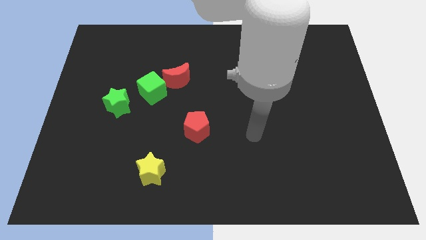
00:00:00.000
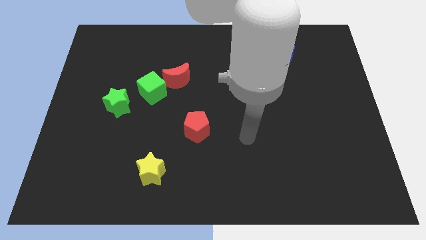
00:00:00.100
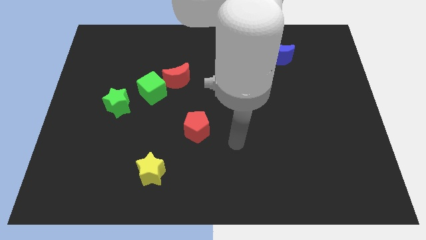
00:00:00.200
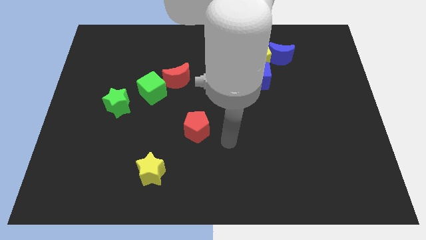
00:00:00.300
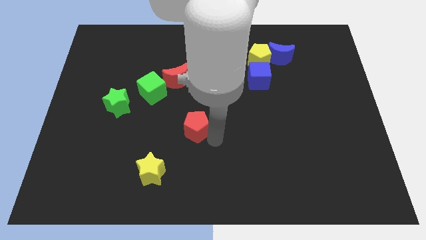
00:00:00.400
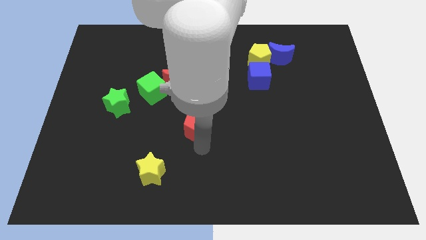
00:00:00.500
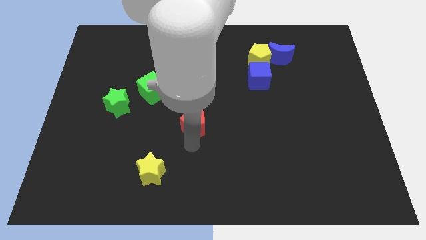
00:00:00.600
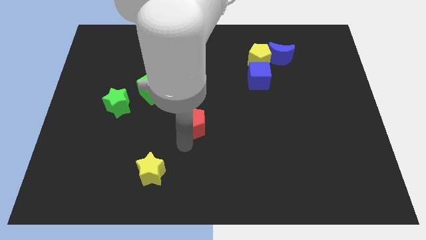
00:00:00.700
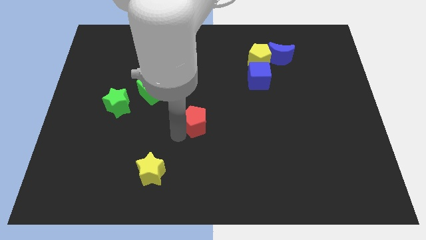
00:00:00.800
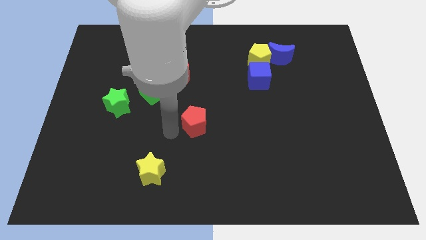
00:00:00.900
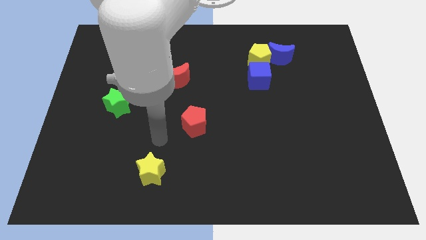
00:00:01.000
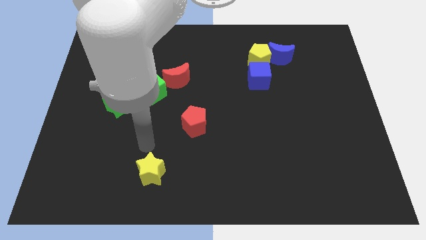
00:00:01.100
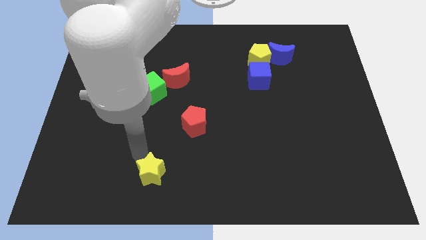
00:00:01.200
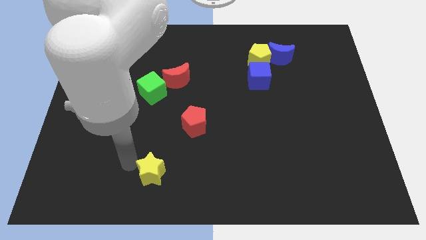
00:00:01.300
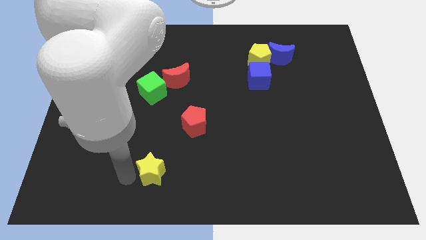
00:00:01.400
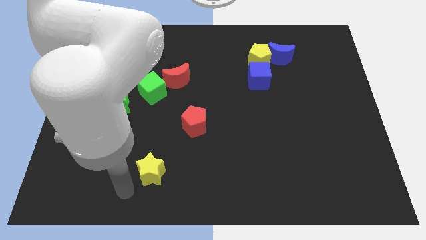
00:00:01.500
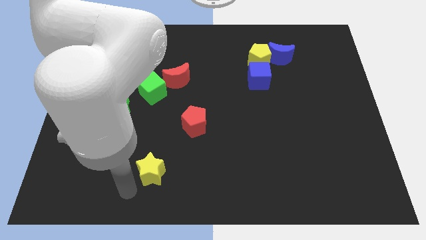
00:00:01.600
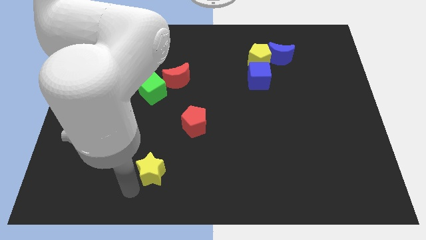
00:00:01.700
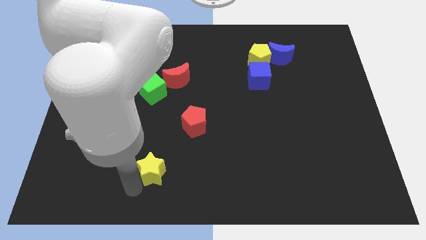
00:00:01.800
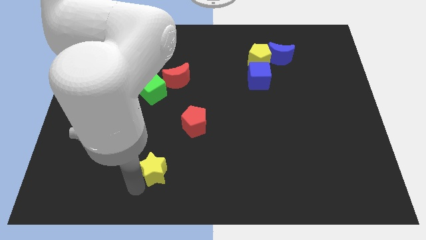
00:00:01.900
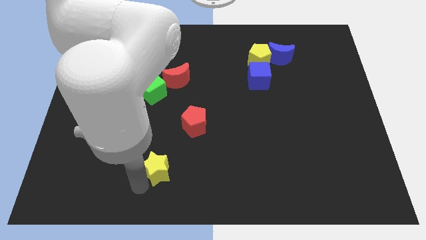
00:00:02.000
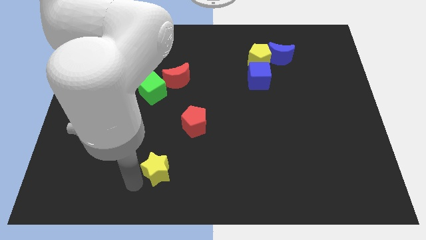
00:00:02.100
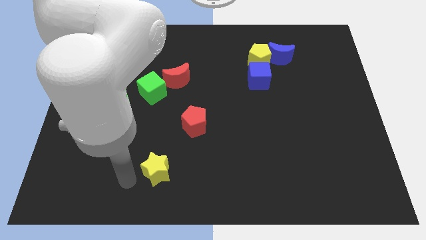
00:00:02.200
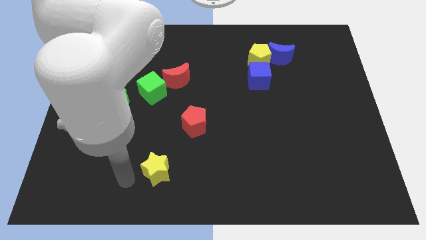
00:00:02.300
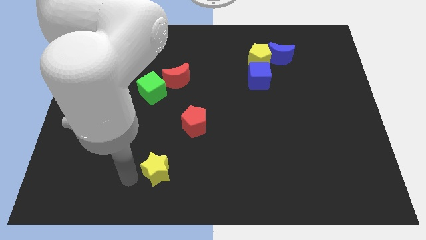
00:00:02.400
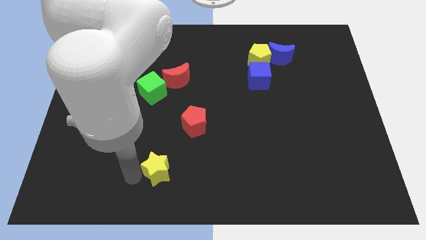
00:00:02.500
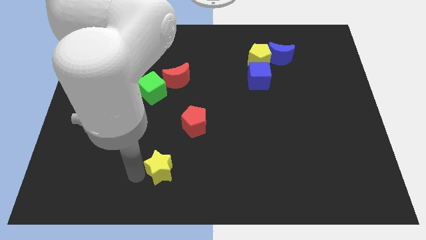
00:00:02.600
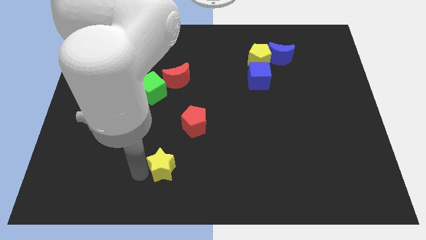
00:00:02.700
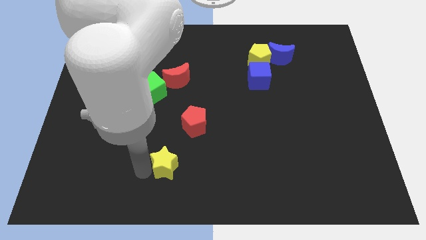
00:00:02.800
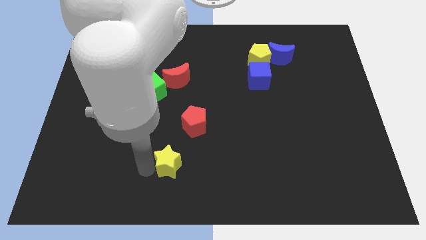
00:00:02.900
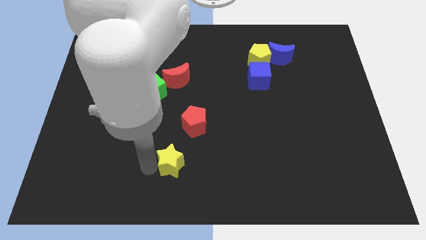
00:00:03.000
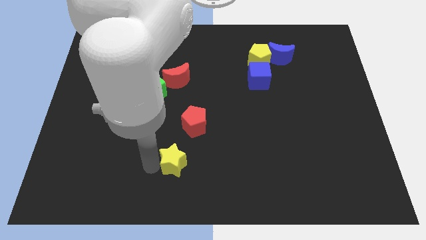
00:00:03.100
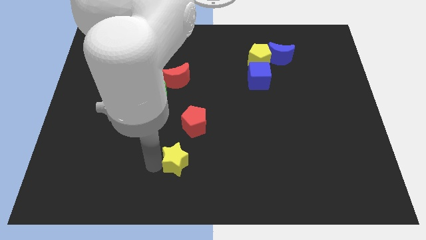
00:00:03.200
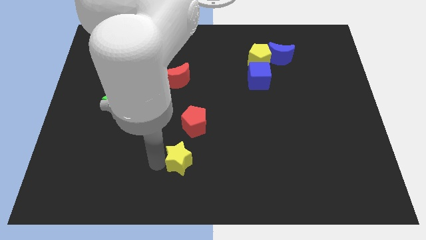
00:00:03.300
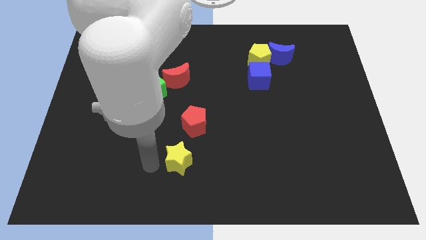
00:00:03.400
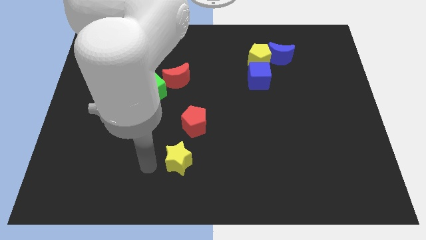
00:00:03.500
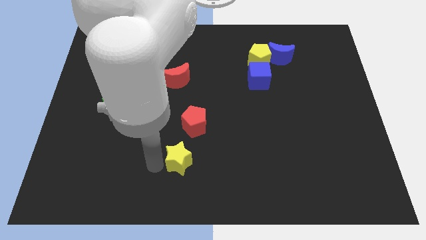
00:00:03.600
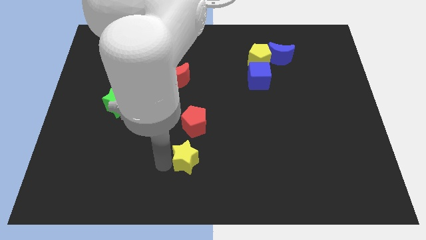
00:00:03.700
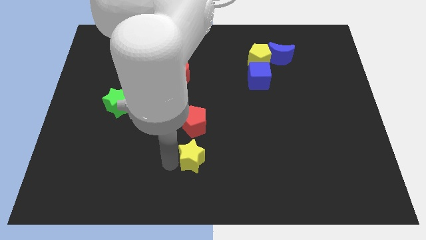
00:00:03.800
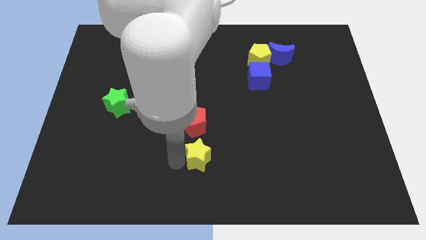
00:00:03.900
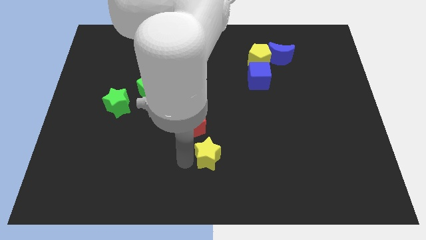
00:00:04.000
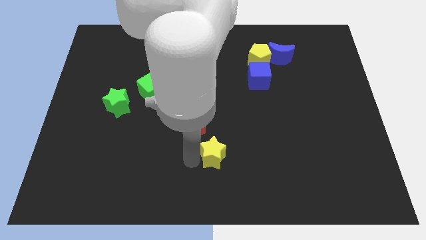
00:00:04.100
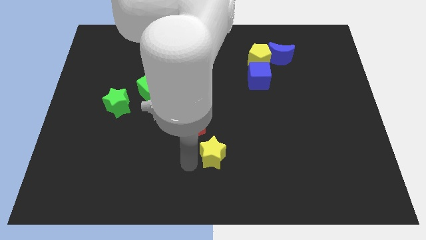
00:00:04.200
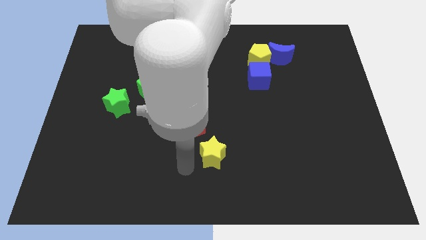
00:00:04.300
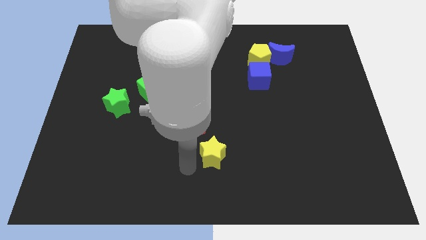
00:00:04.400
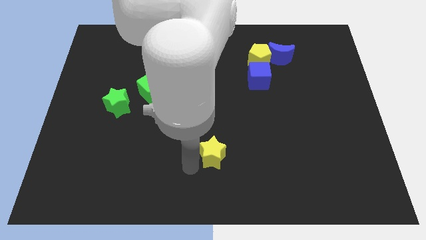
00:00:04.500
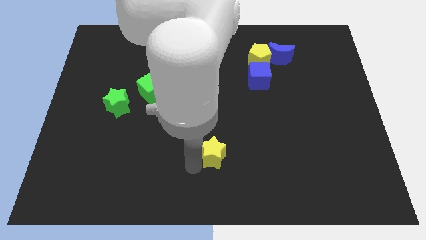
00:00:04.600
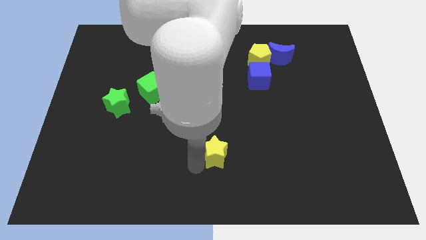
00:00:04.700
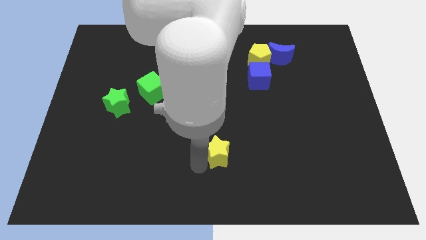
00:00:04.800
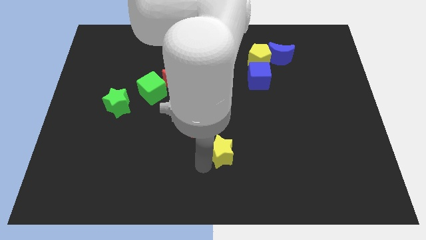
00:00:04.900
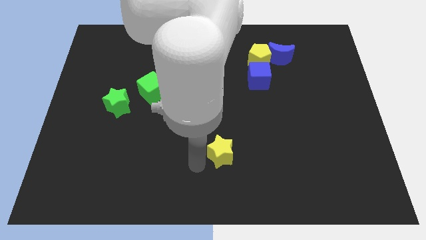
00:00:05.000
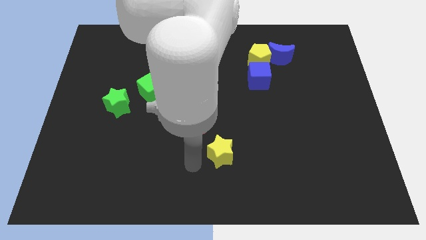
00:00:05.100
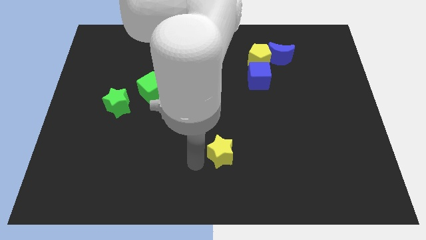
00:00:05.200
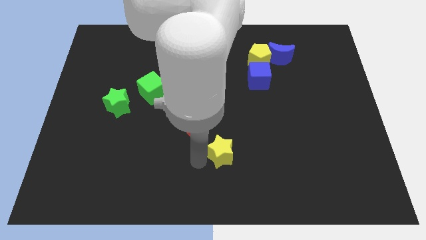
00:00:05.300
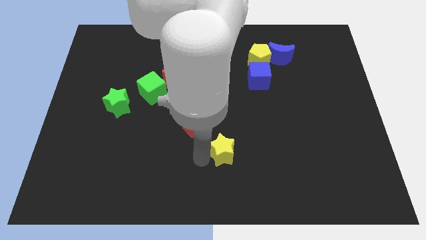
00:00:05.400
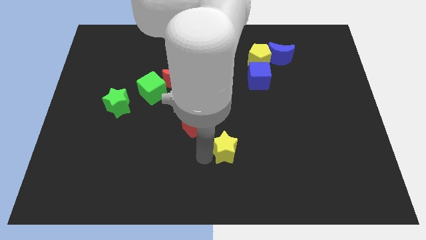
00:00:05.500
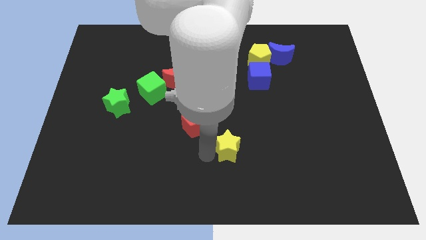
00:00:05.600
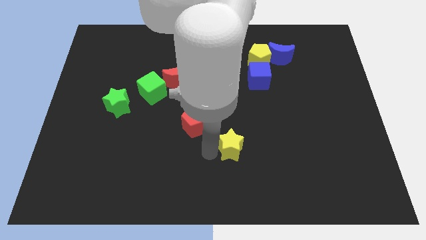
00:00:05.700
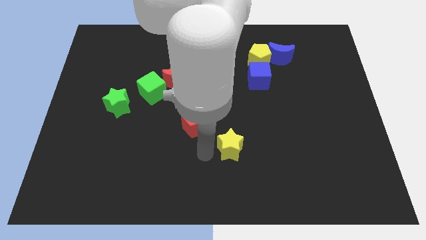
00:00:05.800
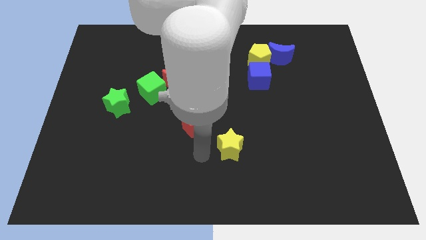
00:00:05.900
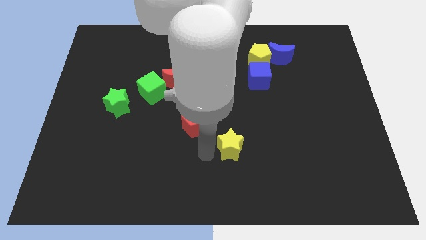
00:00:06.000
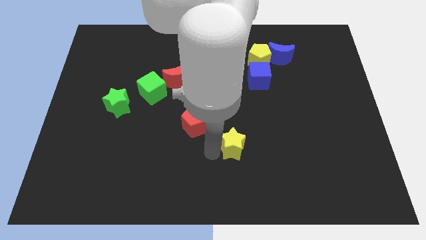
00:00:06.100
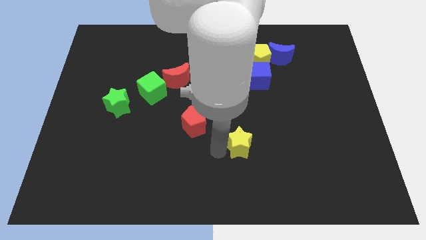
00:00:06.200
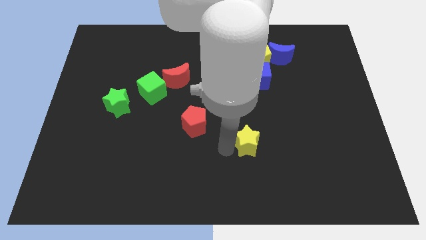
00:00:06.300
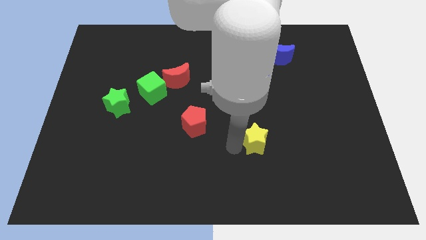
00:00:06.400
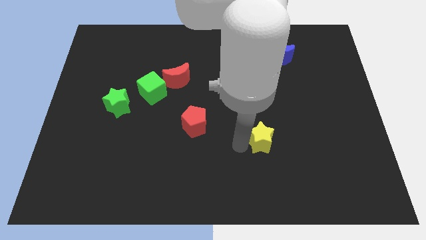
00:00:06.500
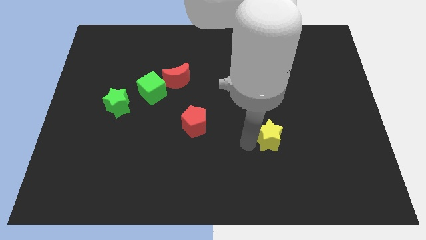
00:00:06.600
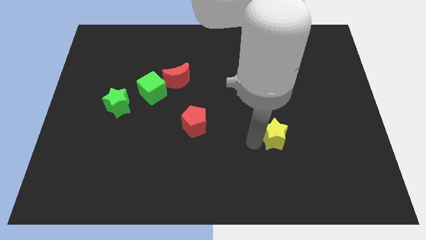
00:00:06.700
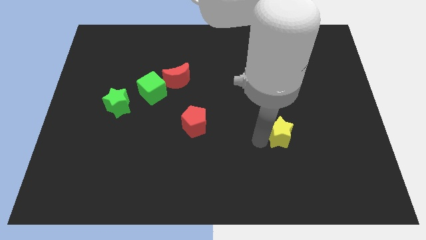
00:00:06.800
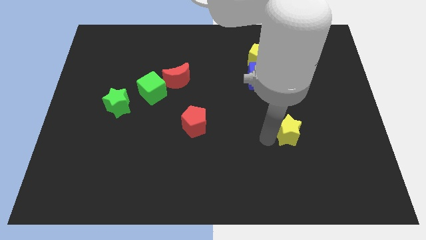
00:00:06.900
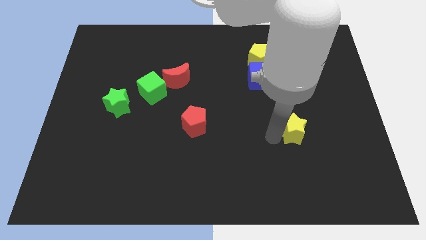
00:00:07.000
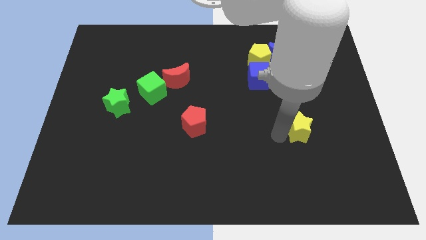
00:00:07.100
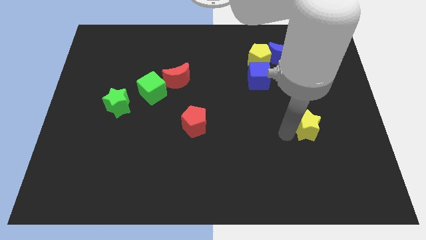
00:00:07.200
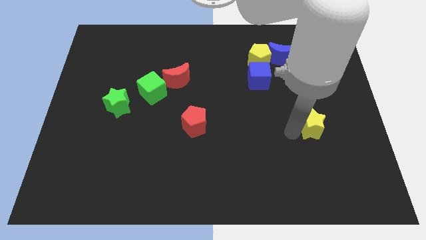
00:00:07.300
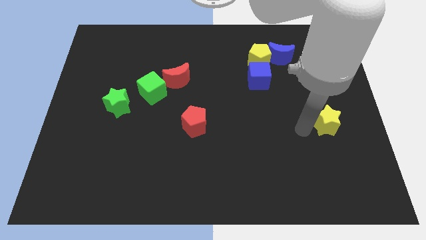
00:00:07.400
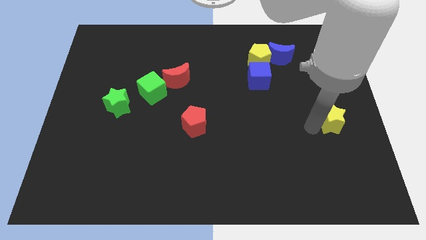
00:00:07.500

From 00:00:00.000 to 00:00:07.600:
move the yellow star to the right side

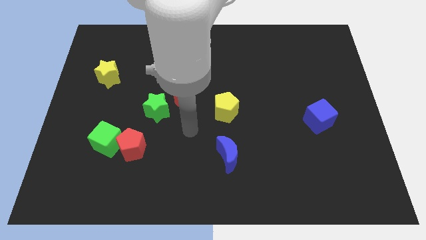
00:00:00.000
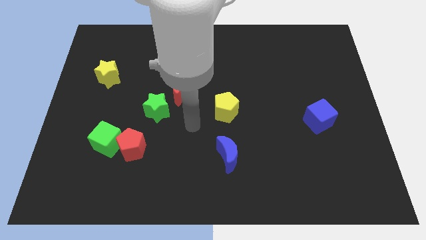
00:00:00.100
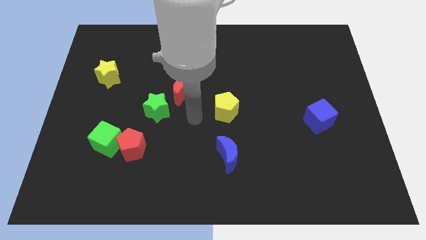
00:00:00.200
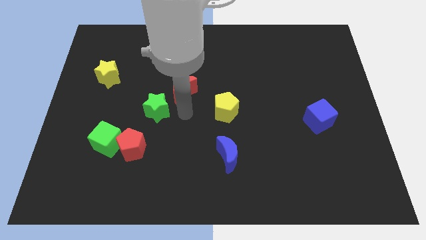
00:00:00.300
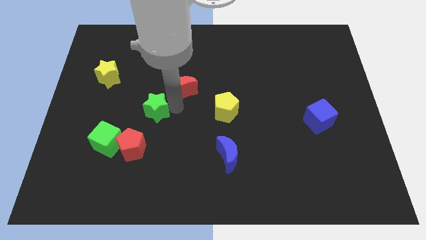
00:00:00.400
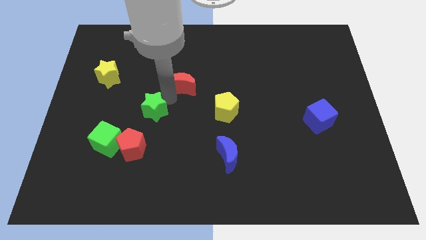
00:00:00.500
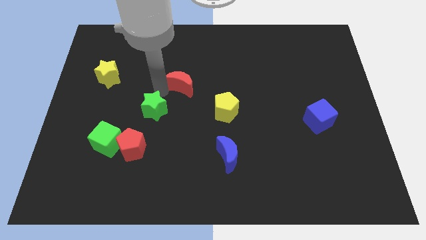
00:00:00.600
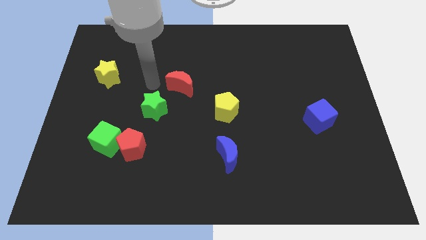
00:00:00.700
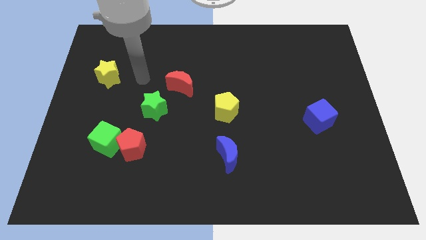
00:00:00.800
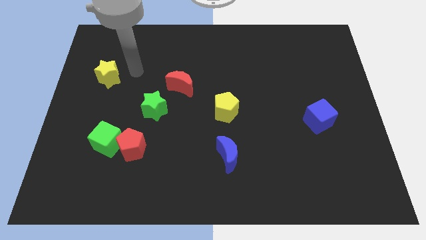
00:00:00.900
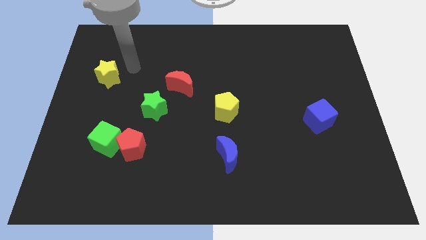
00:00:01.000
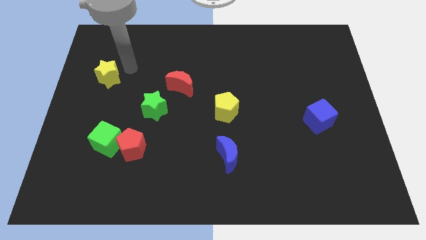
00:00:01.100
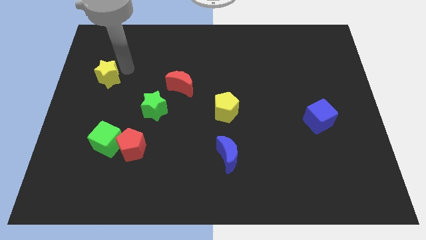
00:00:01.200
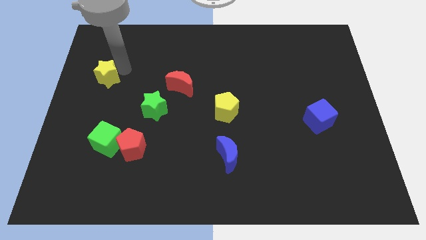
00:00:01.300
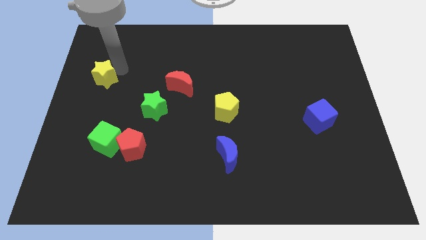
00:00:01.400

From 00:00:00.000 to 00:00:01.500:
push the yellow star to the left side of the board
